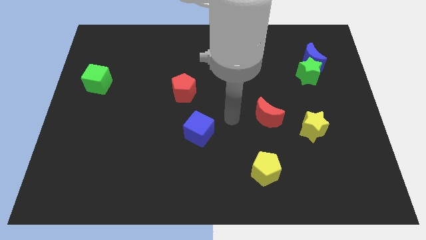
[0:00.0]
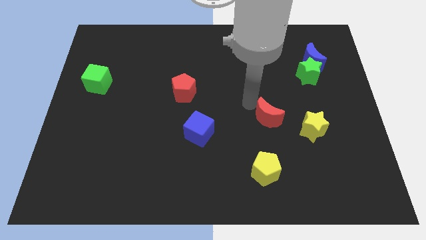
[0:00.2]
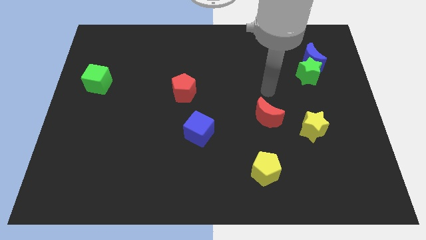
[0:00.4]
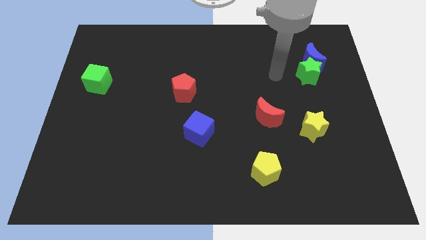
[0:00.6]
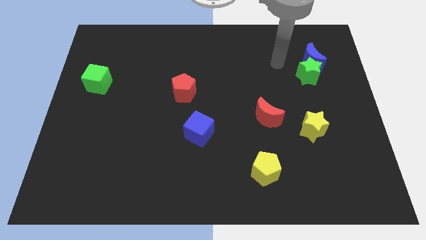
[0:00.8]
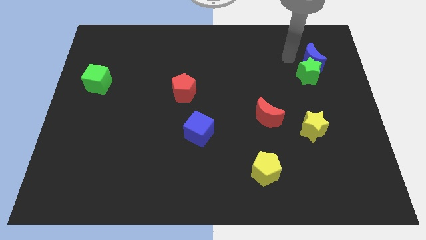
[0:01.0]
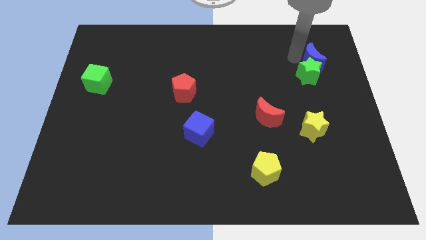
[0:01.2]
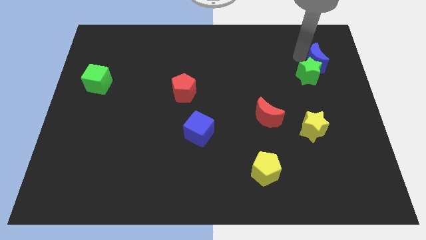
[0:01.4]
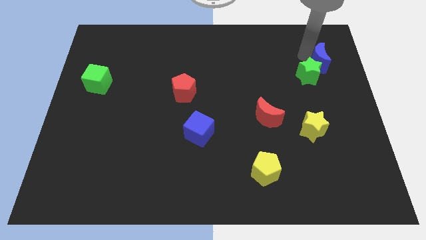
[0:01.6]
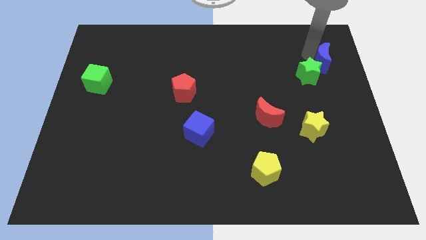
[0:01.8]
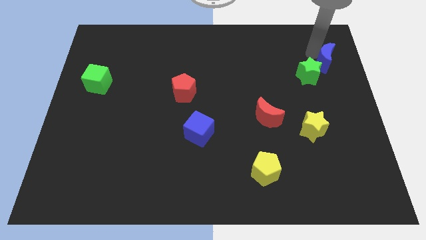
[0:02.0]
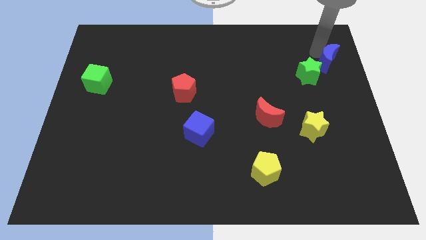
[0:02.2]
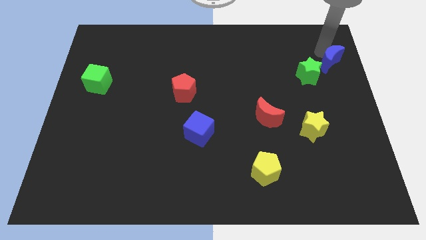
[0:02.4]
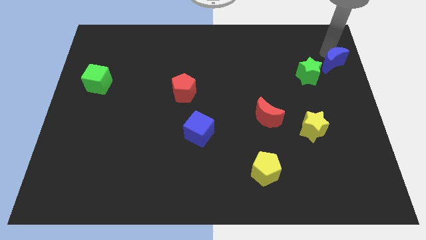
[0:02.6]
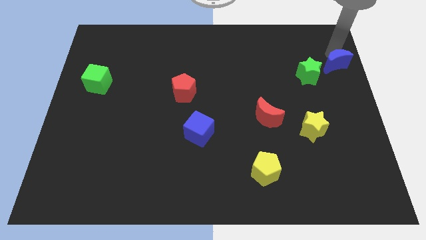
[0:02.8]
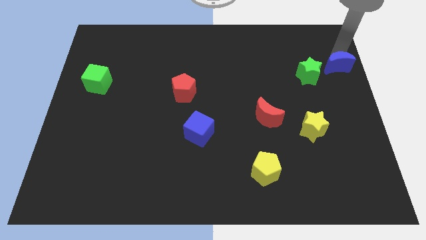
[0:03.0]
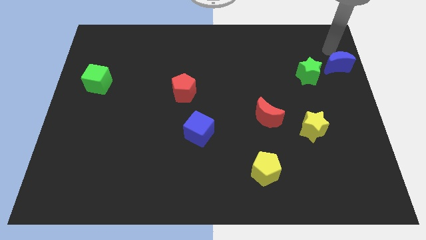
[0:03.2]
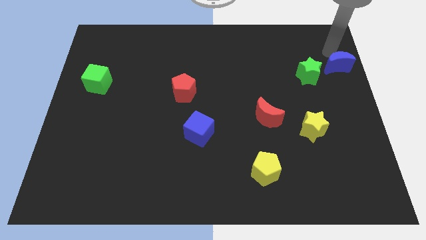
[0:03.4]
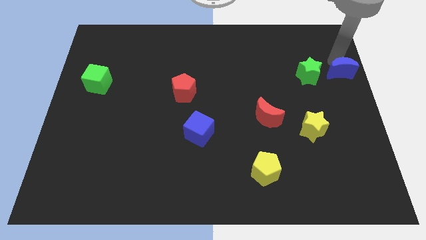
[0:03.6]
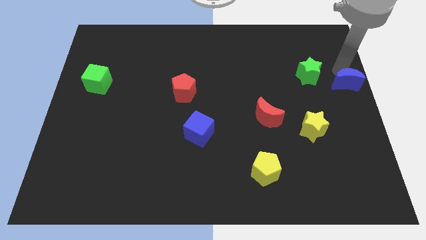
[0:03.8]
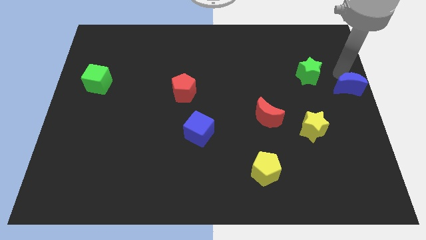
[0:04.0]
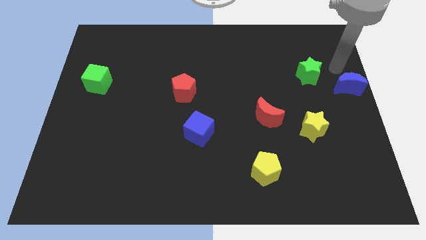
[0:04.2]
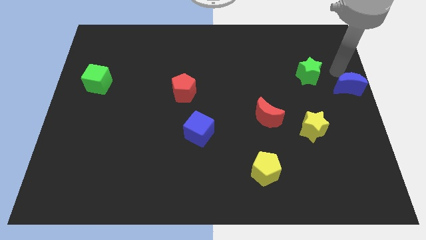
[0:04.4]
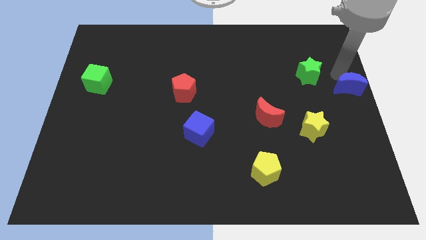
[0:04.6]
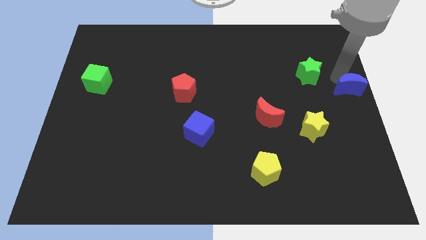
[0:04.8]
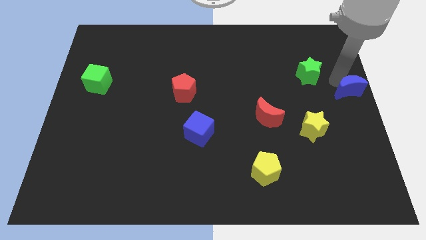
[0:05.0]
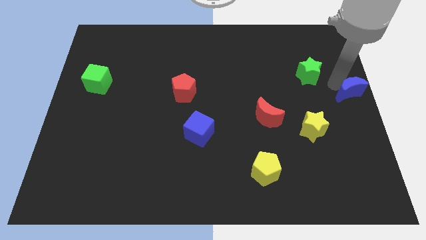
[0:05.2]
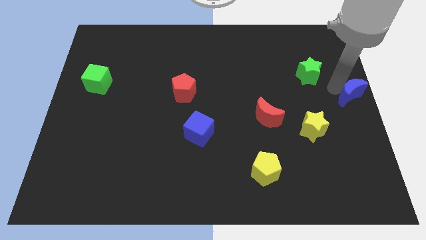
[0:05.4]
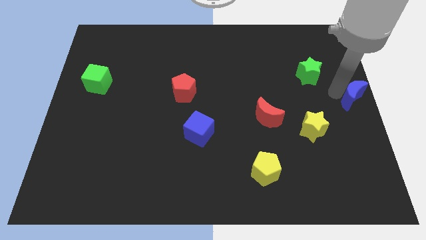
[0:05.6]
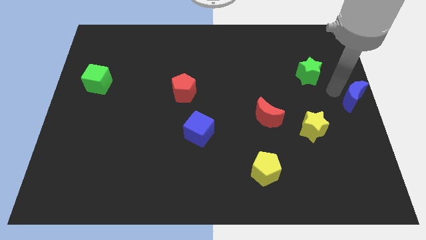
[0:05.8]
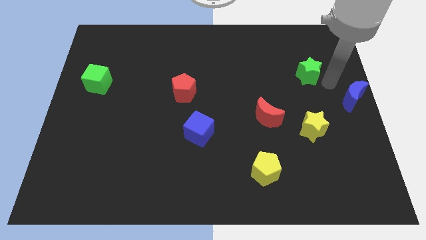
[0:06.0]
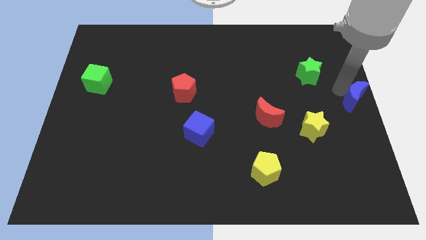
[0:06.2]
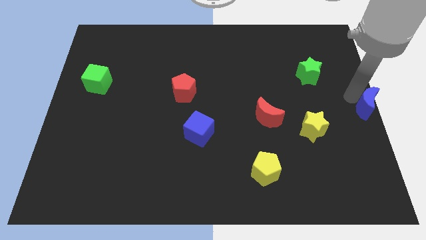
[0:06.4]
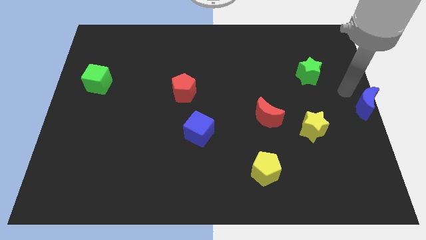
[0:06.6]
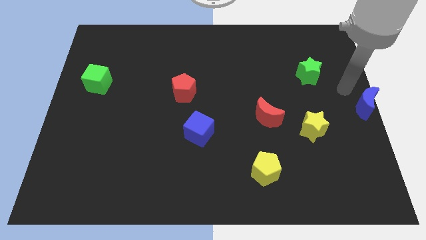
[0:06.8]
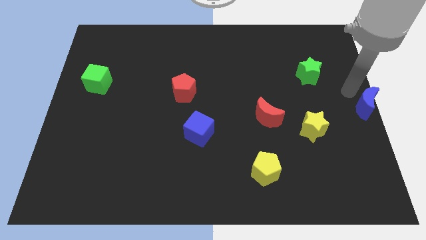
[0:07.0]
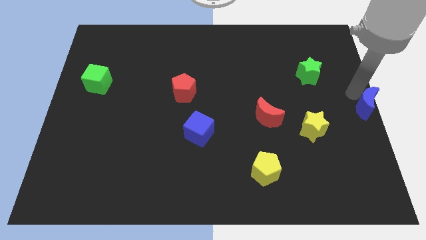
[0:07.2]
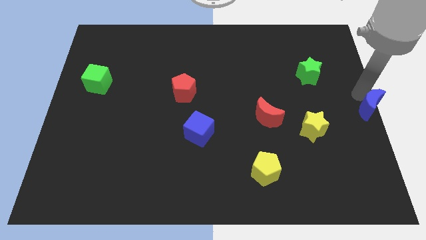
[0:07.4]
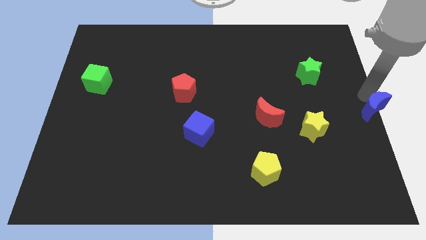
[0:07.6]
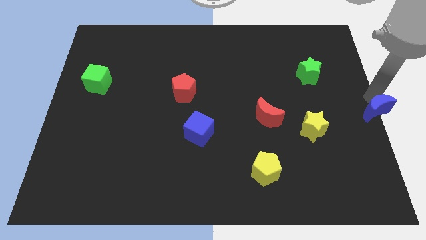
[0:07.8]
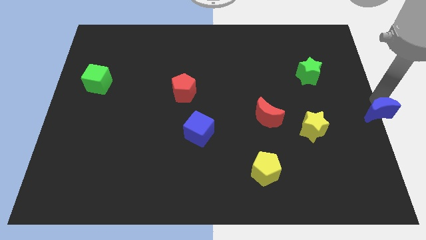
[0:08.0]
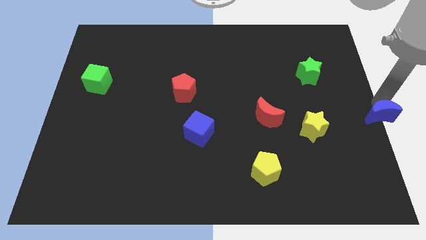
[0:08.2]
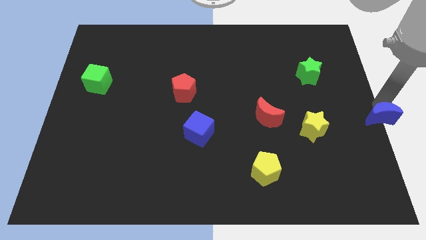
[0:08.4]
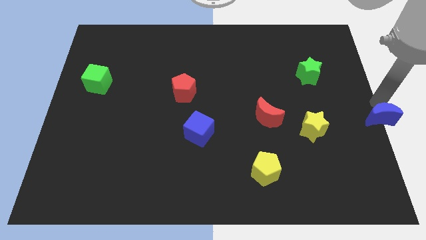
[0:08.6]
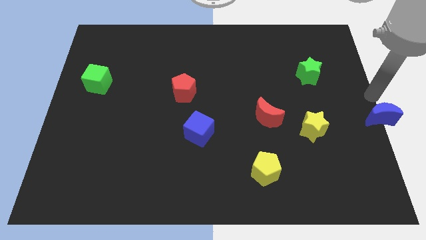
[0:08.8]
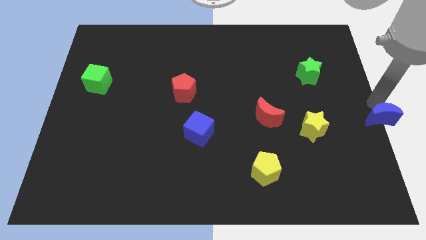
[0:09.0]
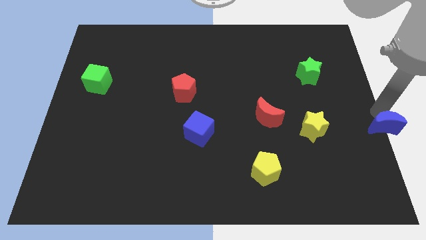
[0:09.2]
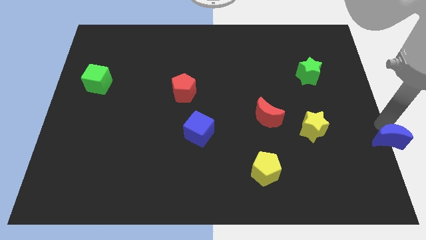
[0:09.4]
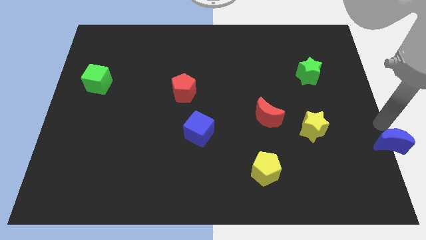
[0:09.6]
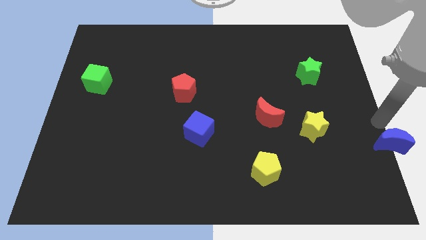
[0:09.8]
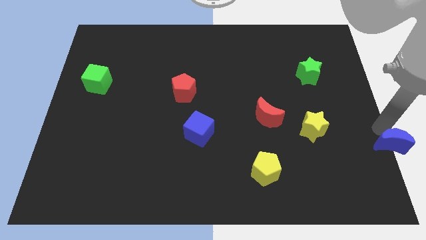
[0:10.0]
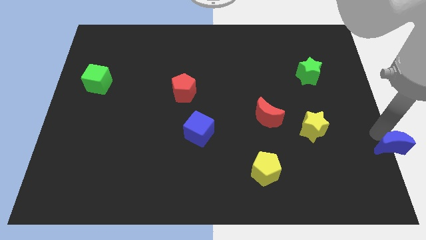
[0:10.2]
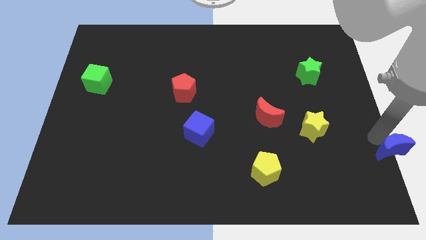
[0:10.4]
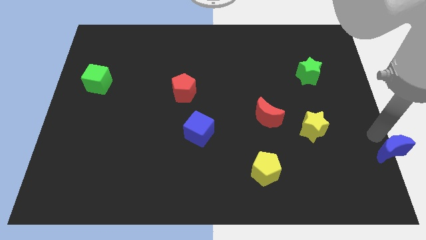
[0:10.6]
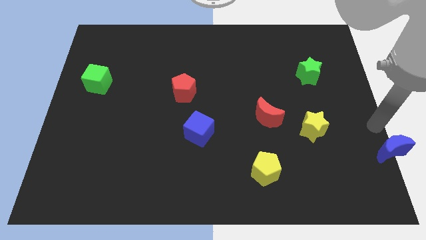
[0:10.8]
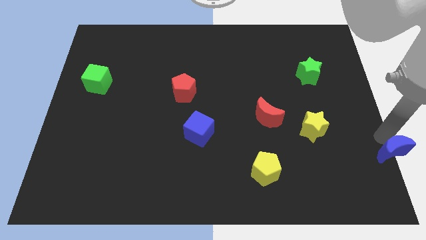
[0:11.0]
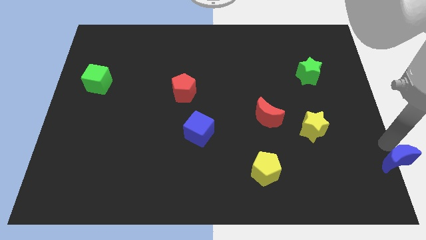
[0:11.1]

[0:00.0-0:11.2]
push the blue moon to the bottom right corner
